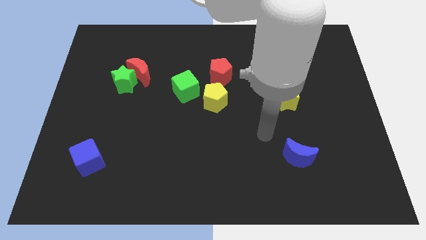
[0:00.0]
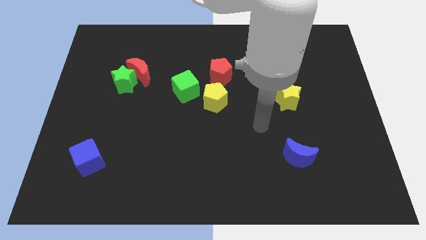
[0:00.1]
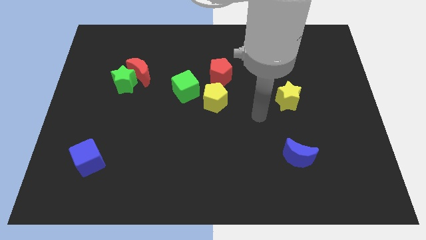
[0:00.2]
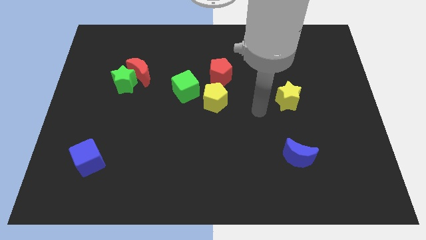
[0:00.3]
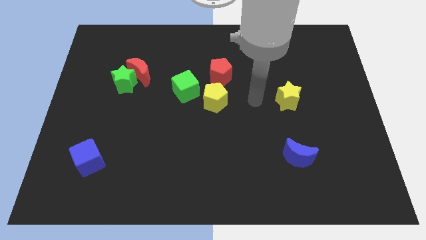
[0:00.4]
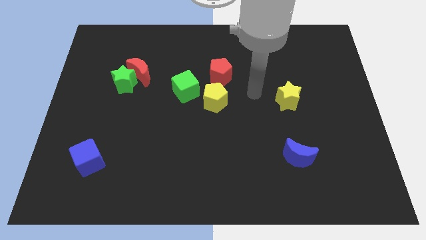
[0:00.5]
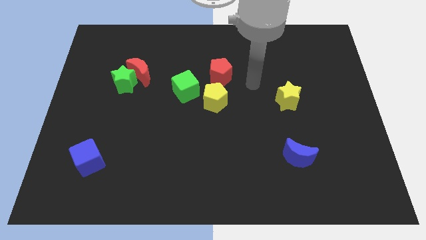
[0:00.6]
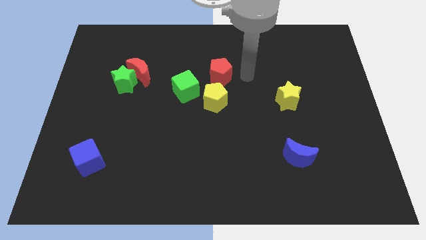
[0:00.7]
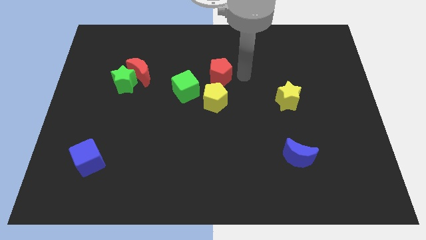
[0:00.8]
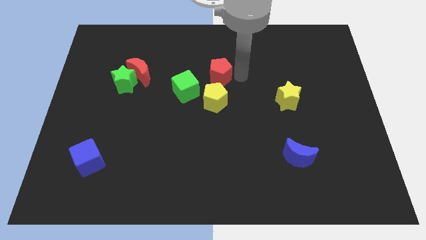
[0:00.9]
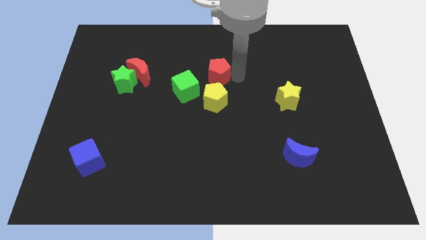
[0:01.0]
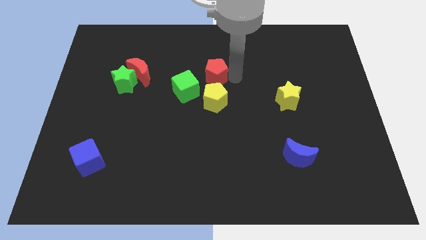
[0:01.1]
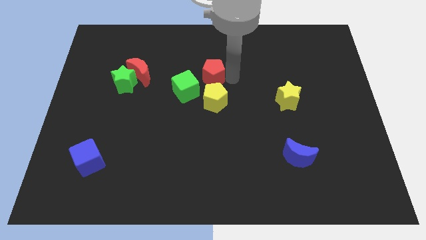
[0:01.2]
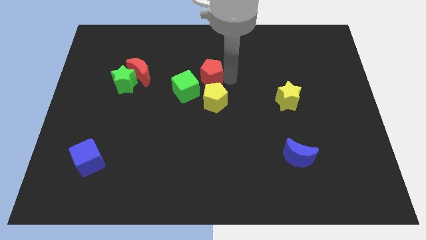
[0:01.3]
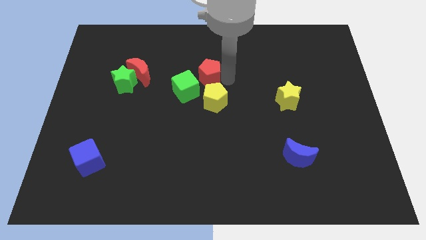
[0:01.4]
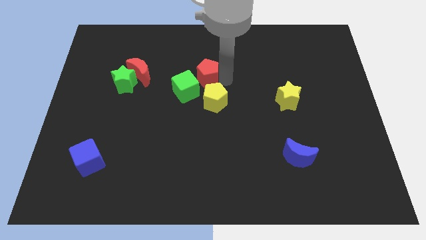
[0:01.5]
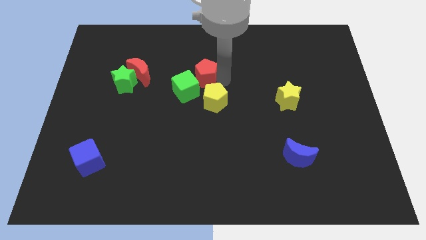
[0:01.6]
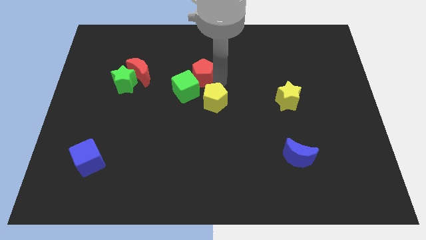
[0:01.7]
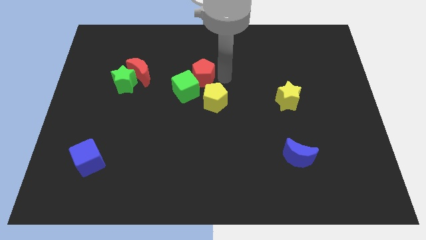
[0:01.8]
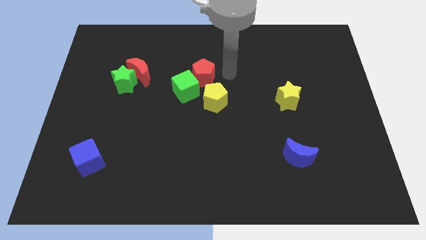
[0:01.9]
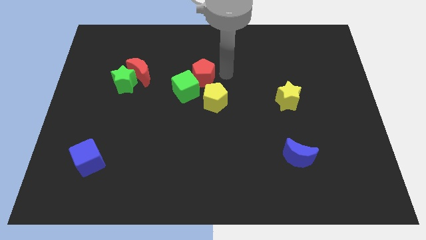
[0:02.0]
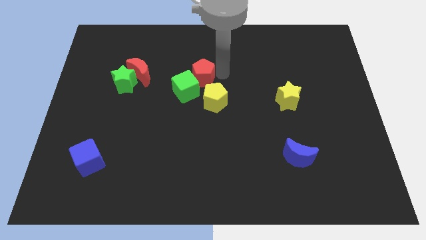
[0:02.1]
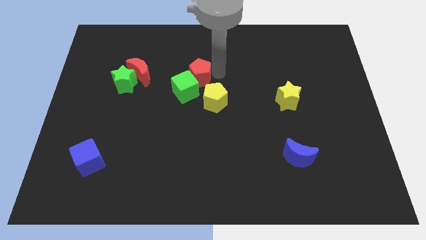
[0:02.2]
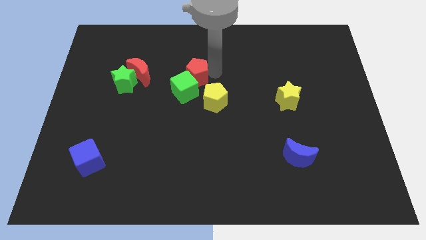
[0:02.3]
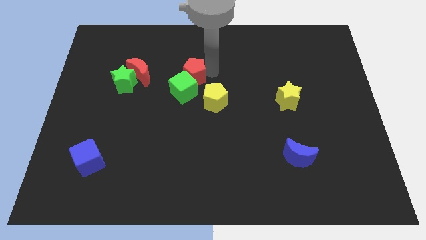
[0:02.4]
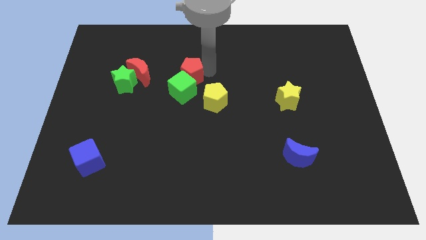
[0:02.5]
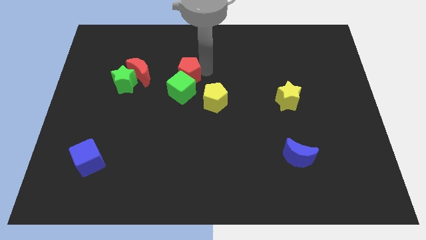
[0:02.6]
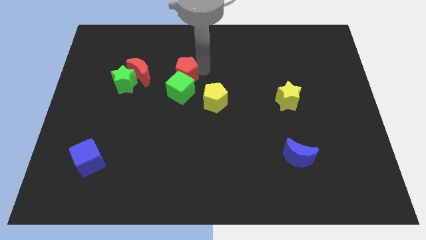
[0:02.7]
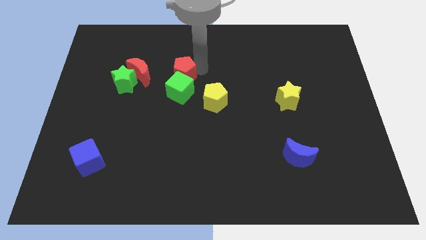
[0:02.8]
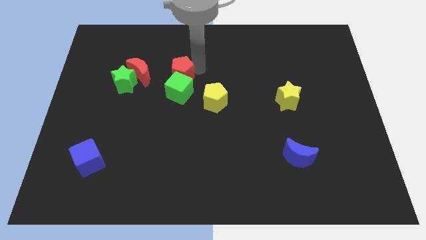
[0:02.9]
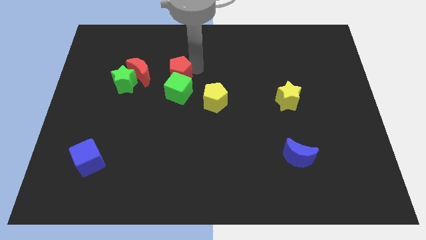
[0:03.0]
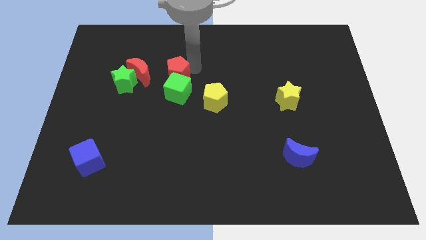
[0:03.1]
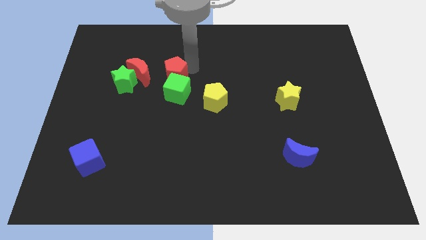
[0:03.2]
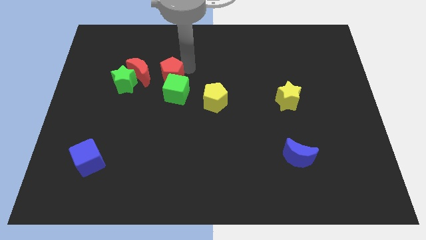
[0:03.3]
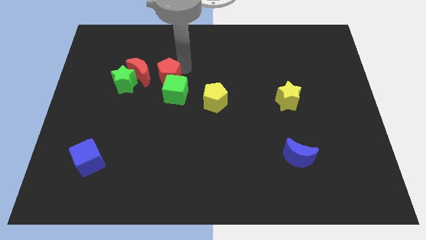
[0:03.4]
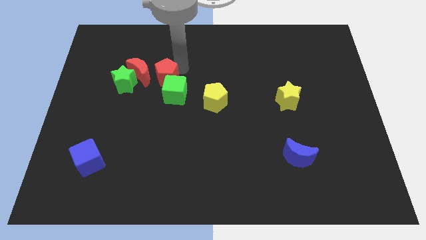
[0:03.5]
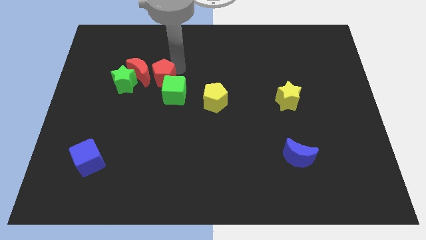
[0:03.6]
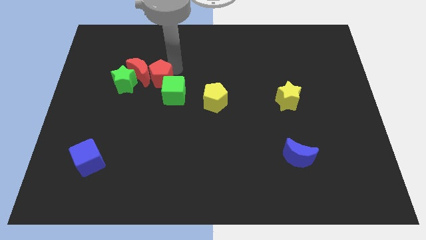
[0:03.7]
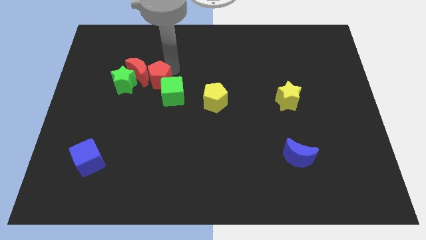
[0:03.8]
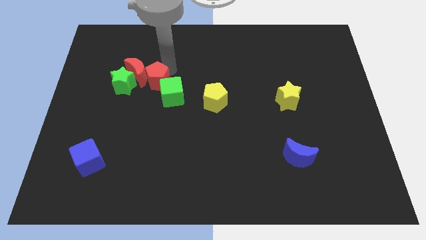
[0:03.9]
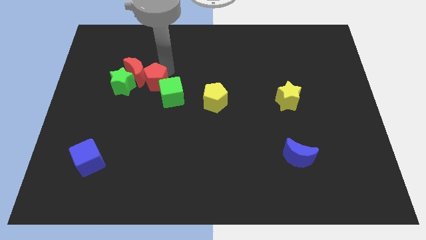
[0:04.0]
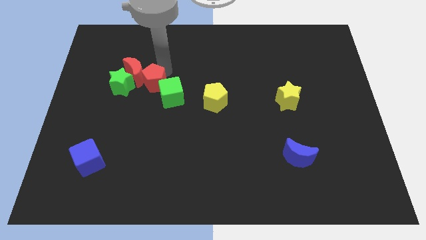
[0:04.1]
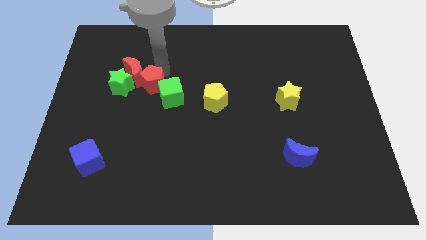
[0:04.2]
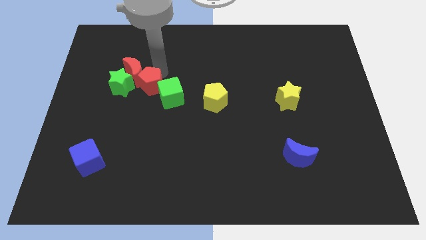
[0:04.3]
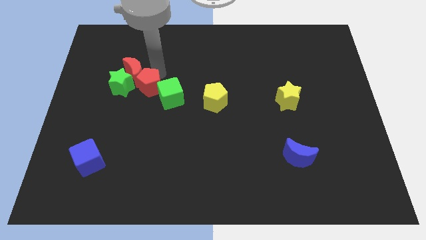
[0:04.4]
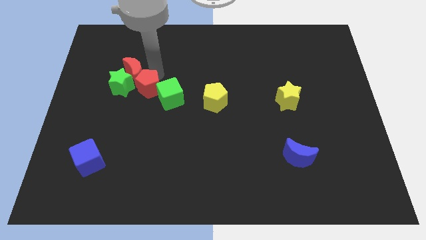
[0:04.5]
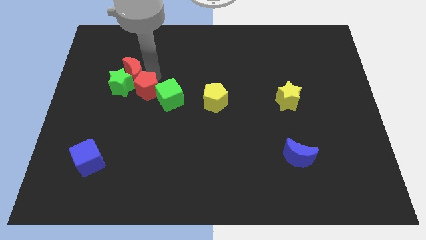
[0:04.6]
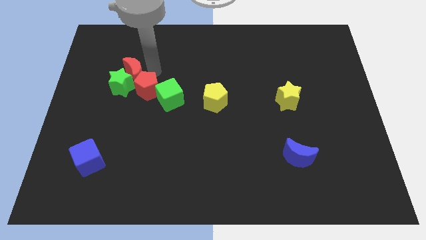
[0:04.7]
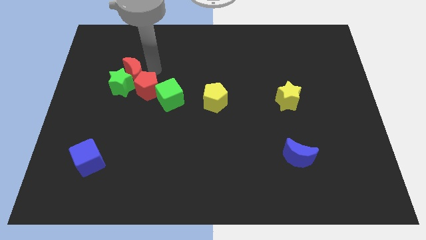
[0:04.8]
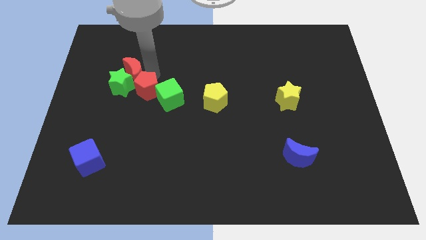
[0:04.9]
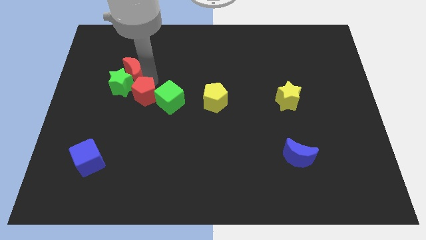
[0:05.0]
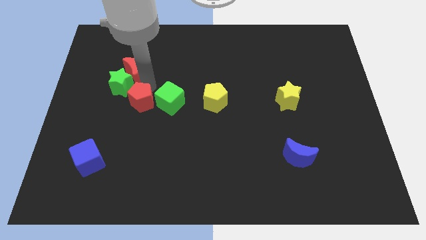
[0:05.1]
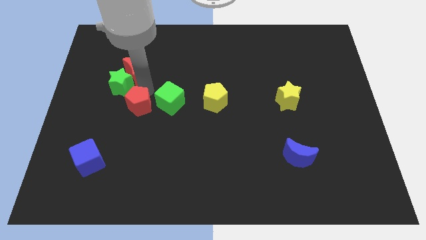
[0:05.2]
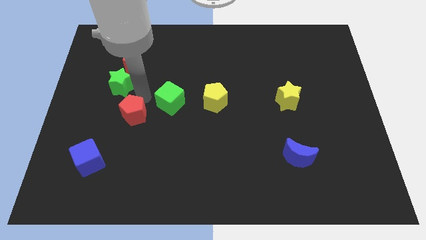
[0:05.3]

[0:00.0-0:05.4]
move the red pentagon down and left diagonally

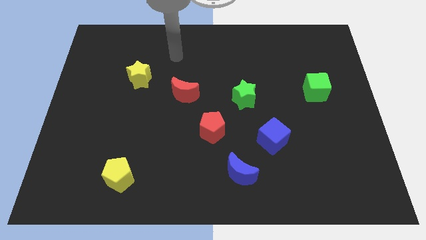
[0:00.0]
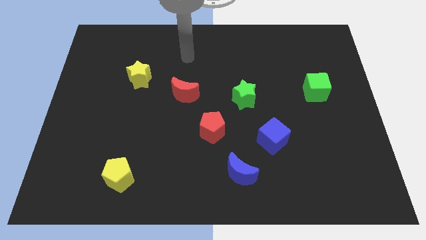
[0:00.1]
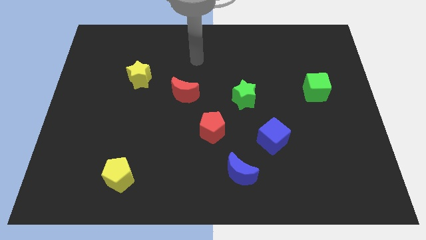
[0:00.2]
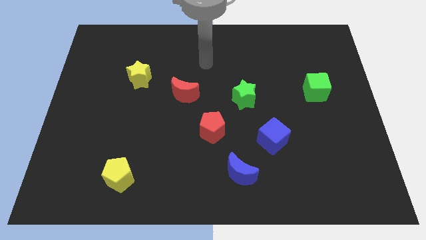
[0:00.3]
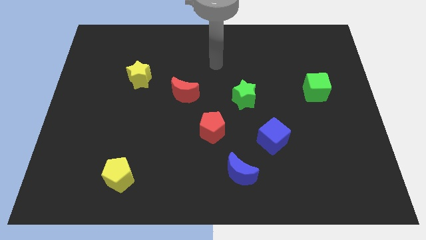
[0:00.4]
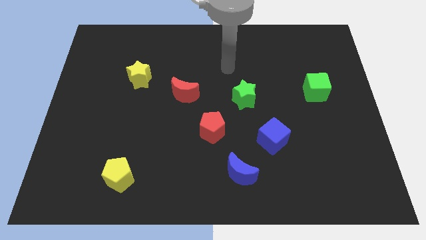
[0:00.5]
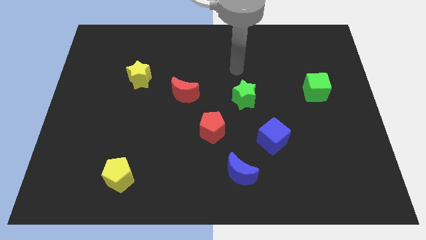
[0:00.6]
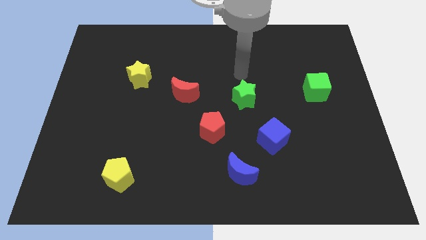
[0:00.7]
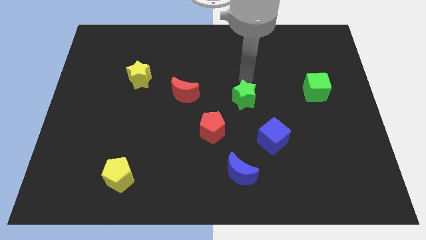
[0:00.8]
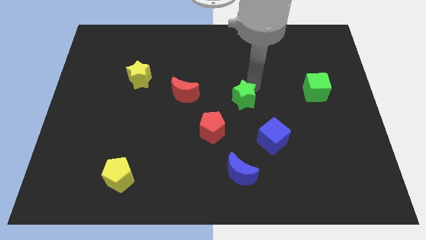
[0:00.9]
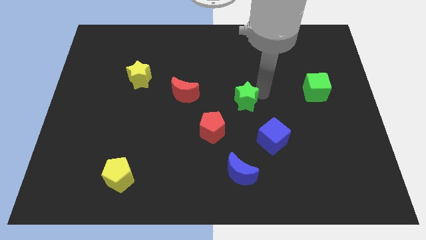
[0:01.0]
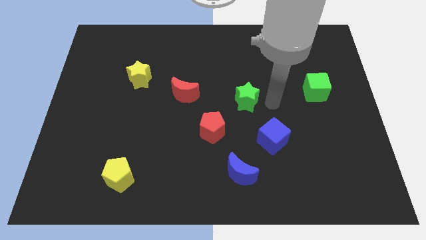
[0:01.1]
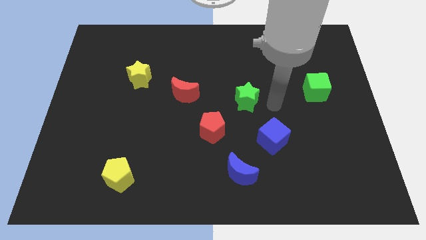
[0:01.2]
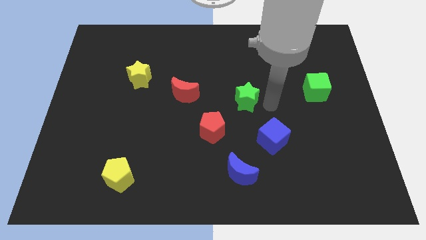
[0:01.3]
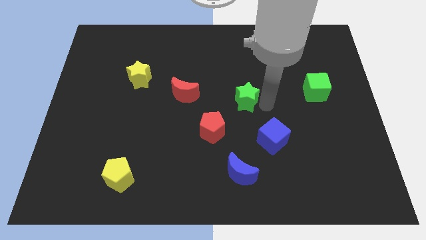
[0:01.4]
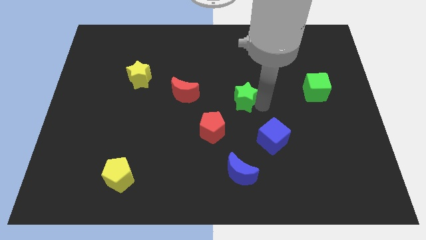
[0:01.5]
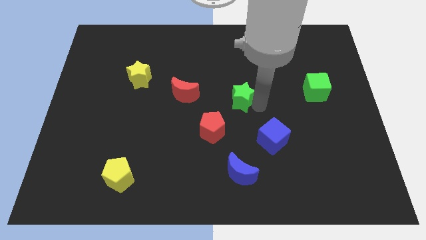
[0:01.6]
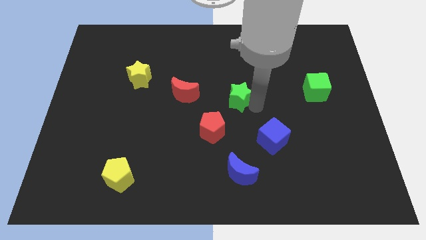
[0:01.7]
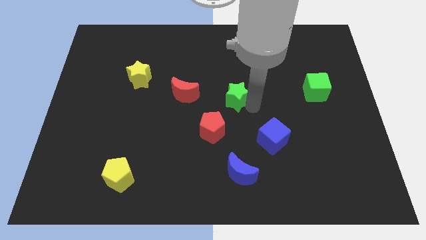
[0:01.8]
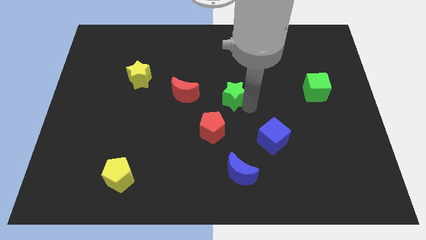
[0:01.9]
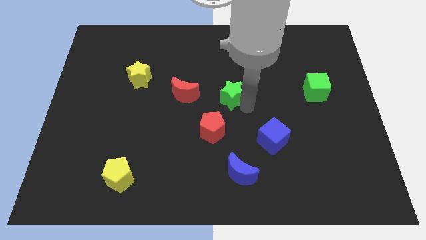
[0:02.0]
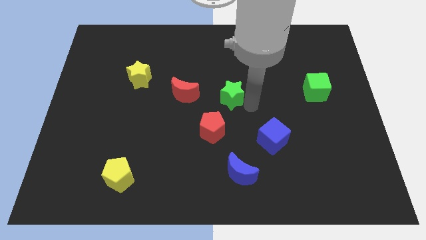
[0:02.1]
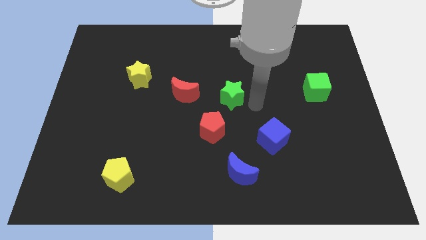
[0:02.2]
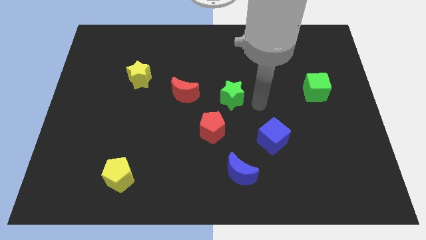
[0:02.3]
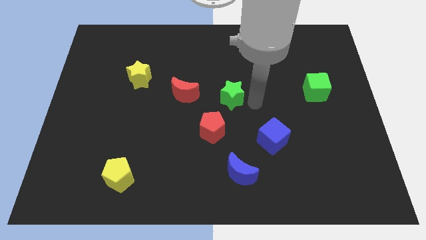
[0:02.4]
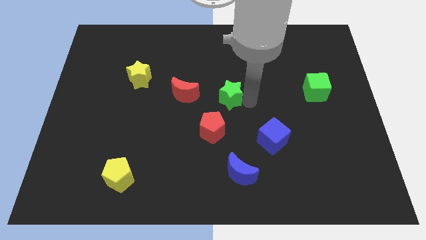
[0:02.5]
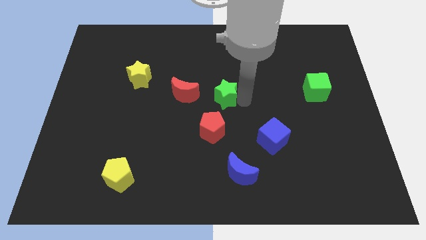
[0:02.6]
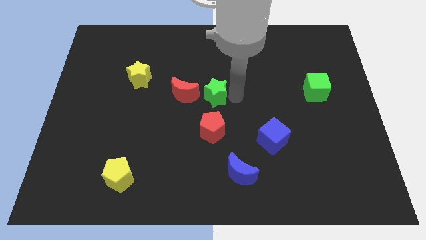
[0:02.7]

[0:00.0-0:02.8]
slightly move the green star left

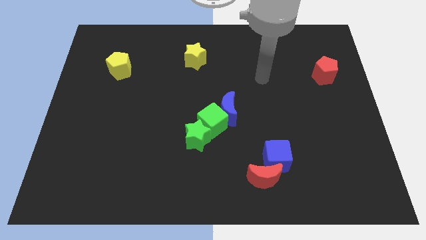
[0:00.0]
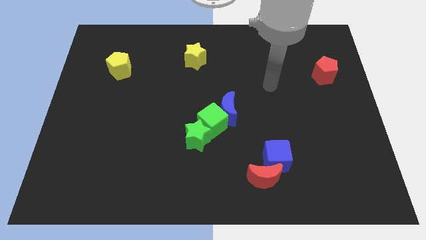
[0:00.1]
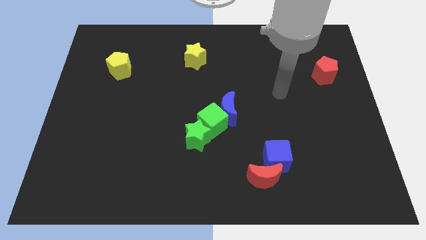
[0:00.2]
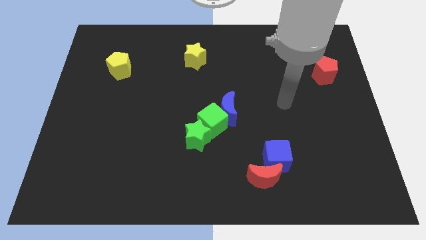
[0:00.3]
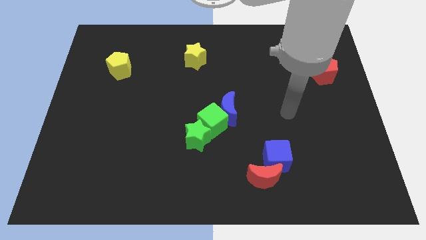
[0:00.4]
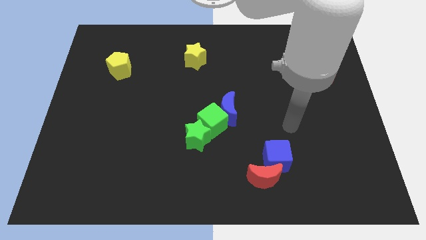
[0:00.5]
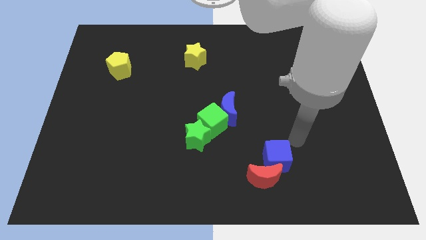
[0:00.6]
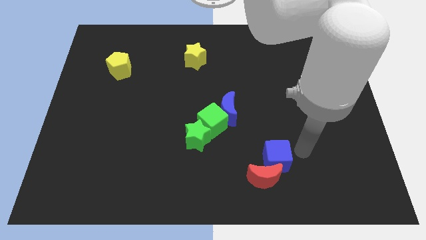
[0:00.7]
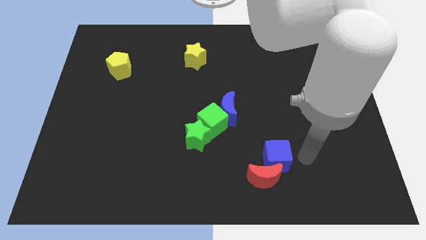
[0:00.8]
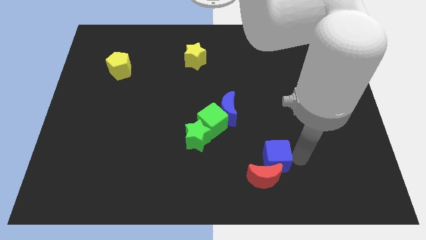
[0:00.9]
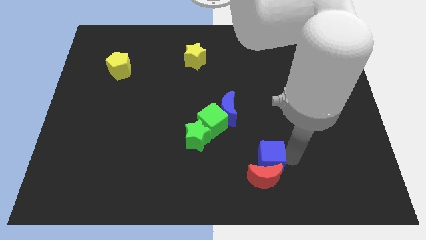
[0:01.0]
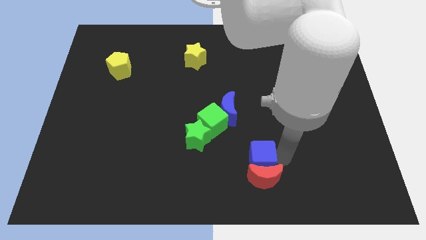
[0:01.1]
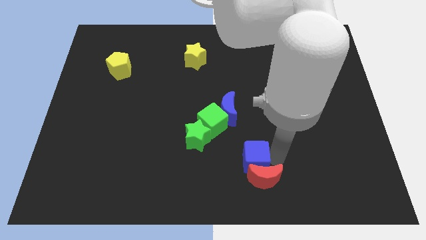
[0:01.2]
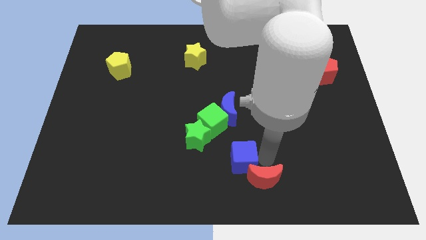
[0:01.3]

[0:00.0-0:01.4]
move the blue cube left somewhat
